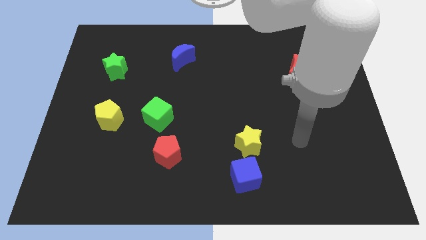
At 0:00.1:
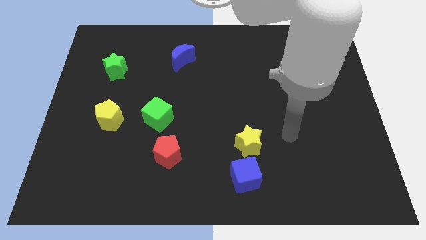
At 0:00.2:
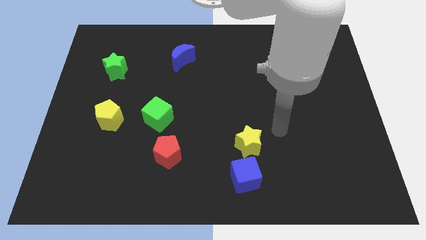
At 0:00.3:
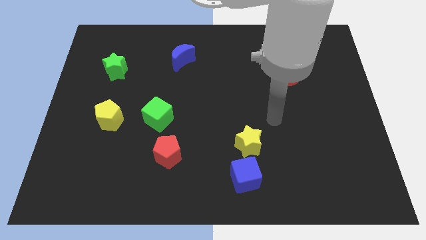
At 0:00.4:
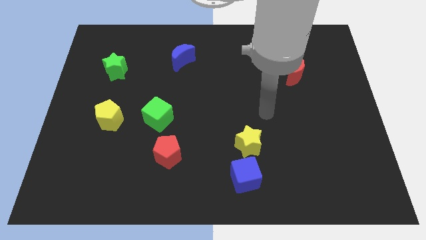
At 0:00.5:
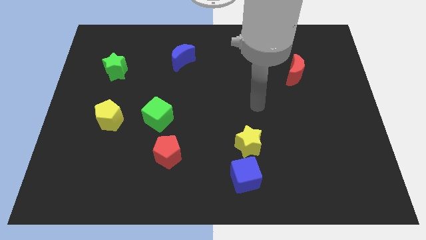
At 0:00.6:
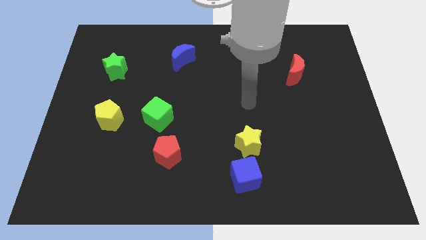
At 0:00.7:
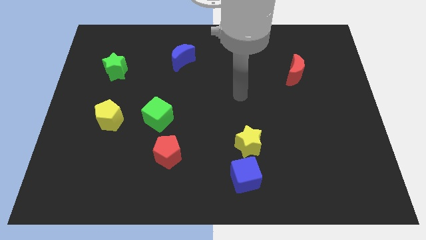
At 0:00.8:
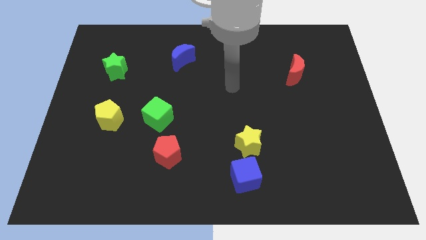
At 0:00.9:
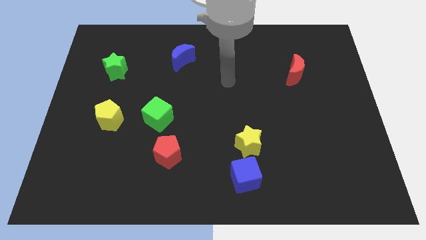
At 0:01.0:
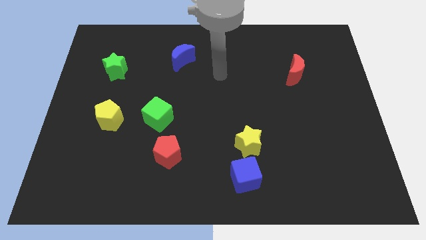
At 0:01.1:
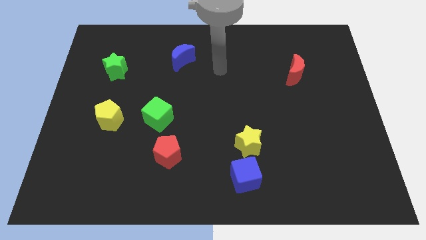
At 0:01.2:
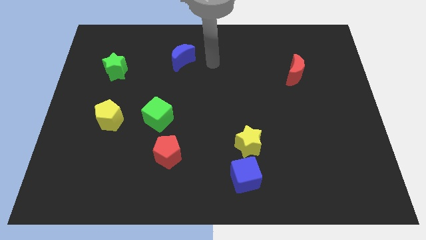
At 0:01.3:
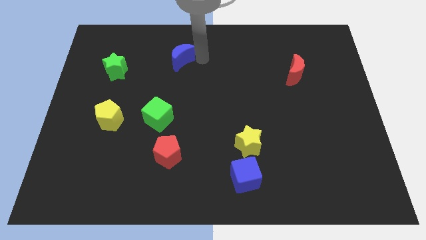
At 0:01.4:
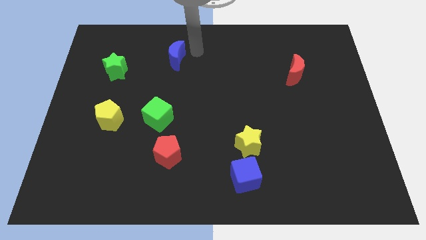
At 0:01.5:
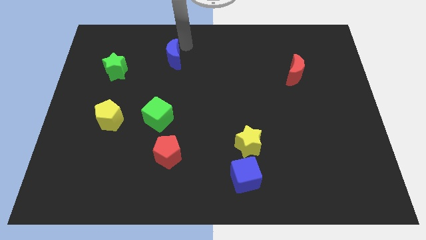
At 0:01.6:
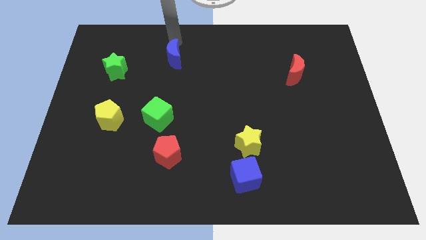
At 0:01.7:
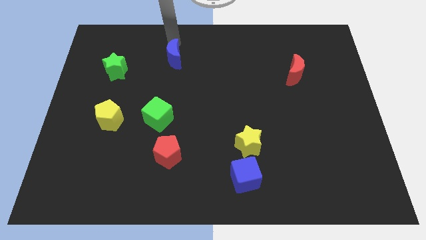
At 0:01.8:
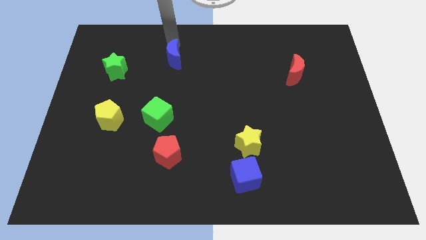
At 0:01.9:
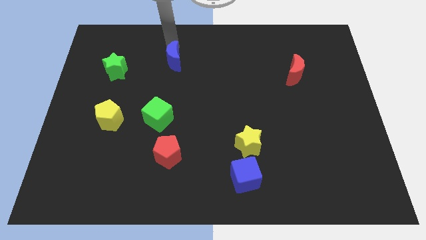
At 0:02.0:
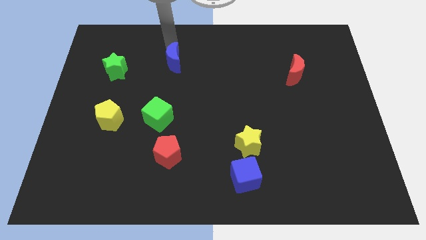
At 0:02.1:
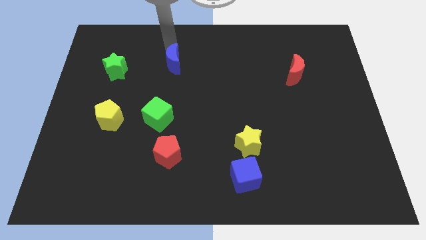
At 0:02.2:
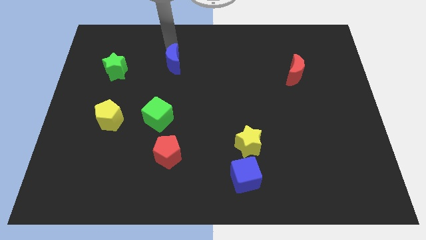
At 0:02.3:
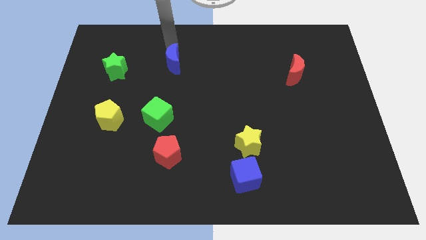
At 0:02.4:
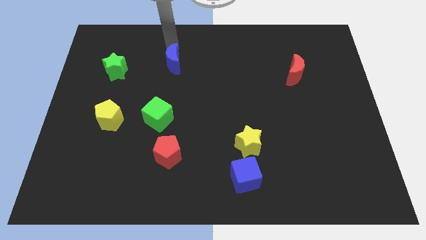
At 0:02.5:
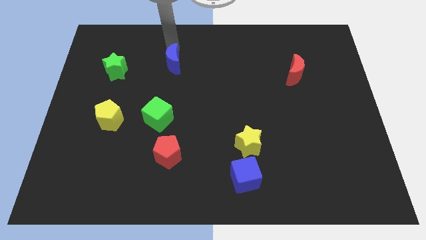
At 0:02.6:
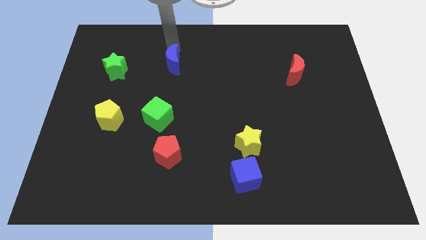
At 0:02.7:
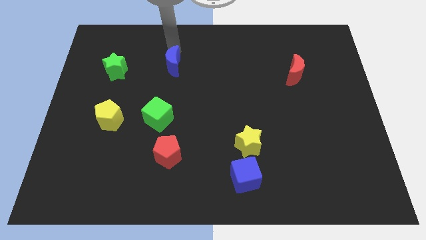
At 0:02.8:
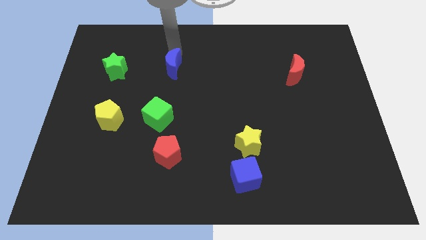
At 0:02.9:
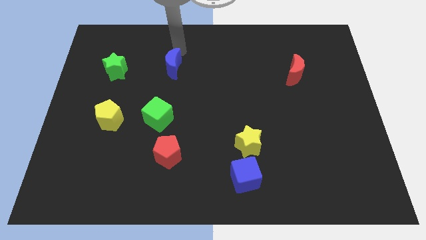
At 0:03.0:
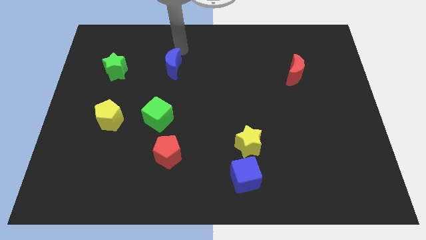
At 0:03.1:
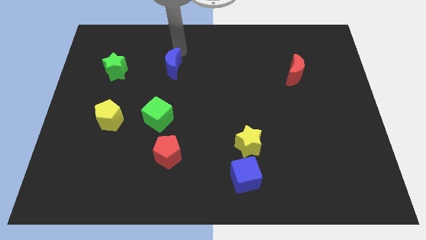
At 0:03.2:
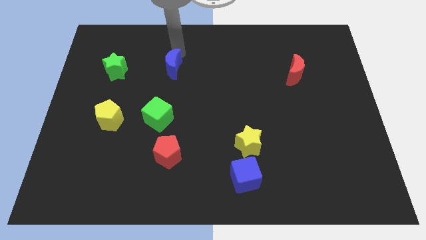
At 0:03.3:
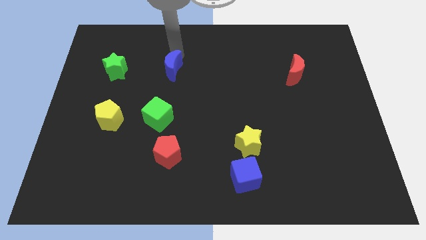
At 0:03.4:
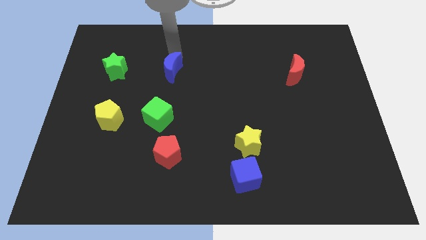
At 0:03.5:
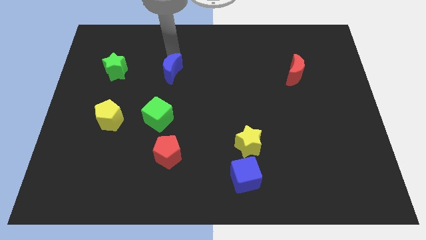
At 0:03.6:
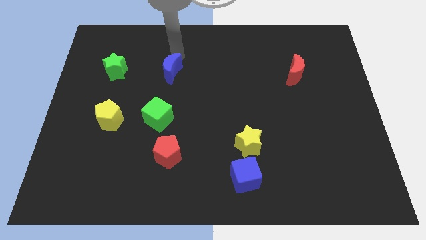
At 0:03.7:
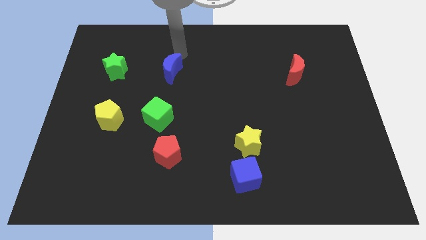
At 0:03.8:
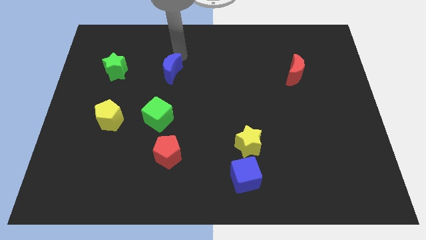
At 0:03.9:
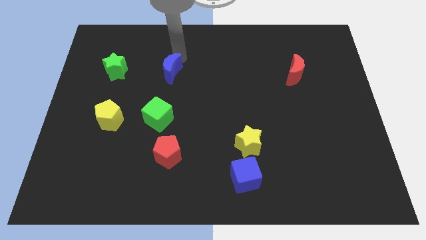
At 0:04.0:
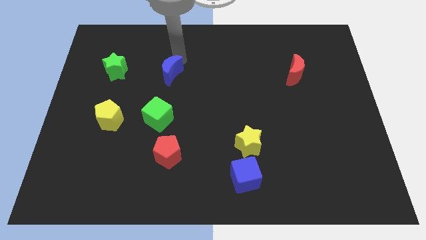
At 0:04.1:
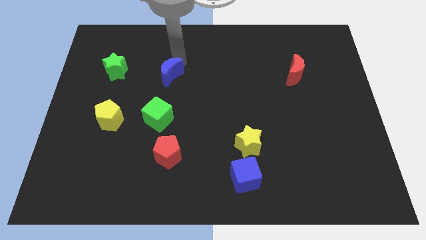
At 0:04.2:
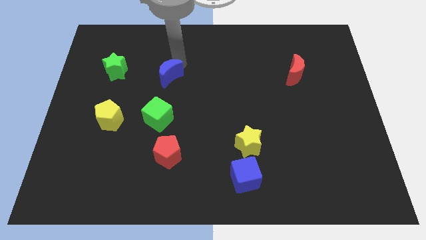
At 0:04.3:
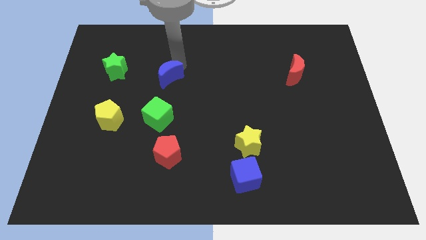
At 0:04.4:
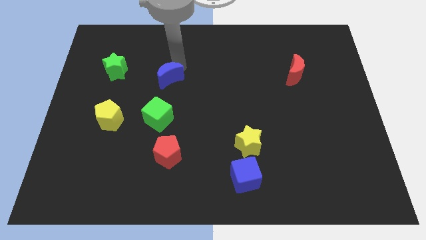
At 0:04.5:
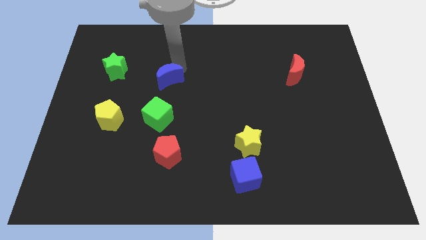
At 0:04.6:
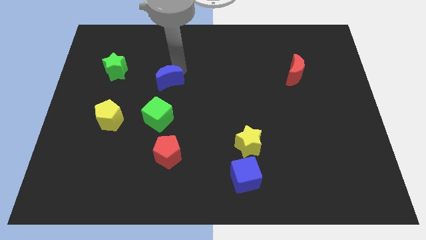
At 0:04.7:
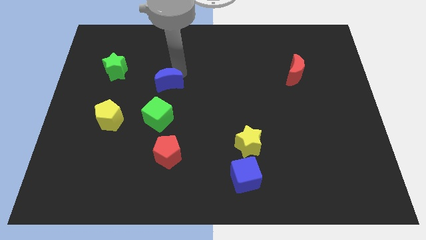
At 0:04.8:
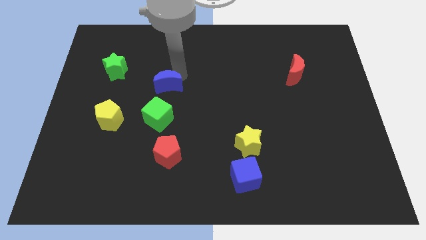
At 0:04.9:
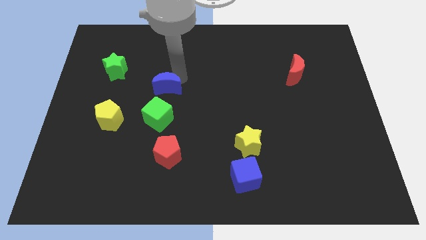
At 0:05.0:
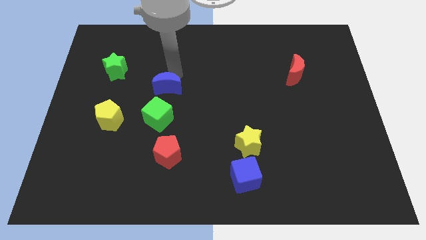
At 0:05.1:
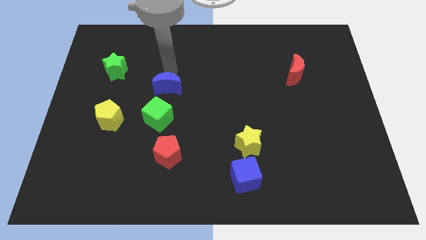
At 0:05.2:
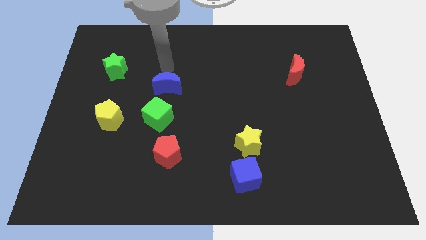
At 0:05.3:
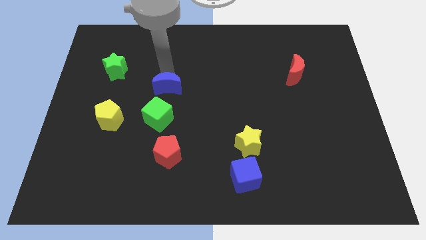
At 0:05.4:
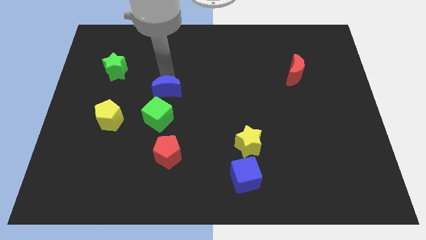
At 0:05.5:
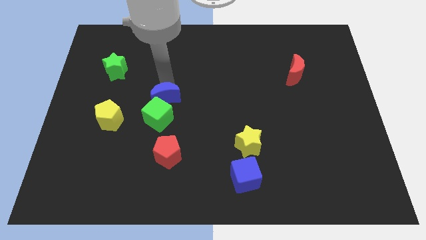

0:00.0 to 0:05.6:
put the blue moon to the top of the red pentagon

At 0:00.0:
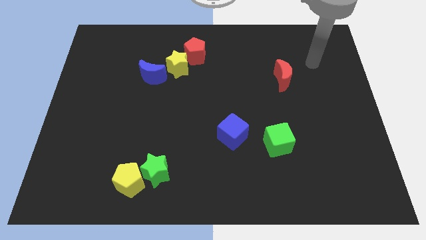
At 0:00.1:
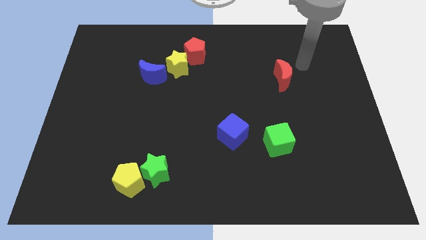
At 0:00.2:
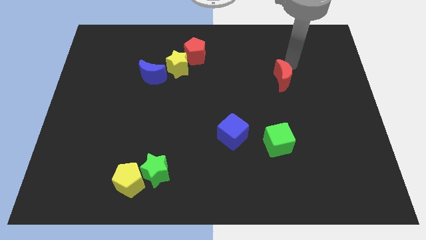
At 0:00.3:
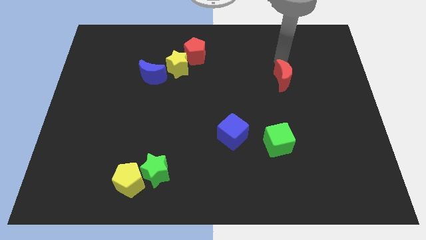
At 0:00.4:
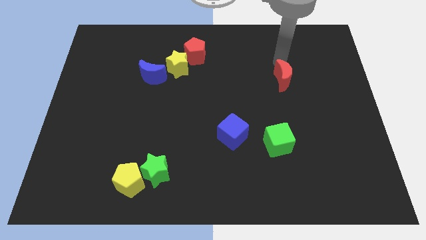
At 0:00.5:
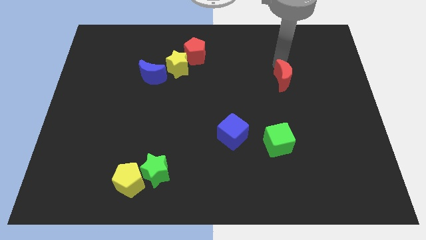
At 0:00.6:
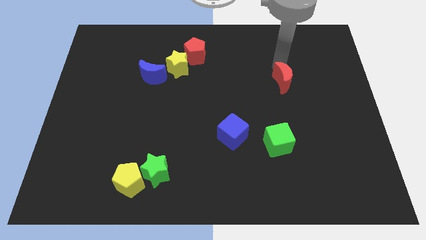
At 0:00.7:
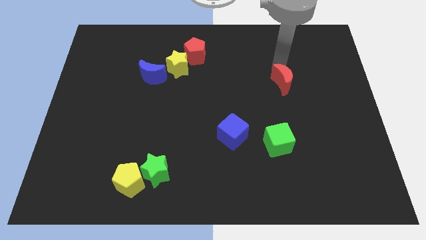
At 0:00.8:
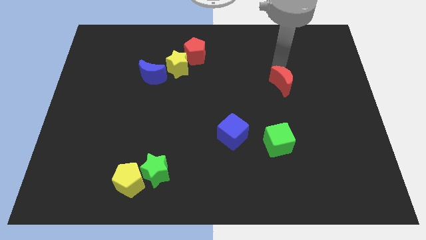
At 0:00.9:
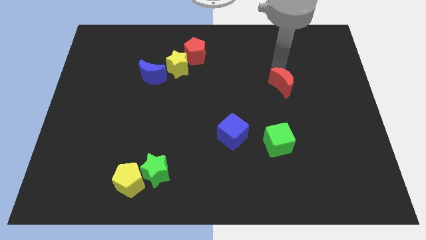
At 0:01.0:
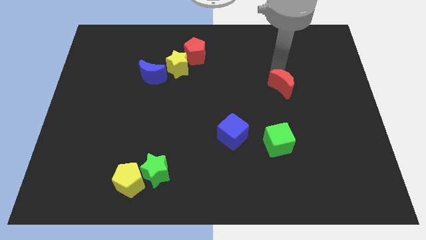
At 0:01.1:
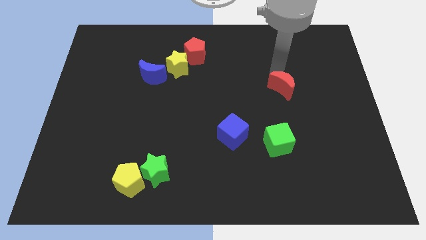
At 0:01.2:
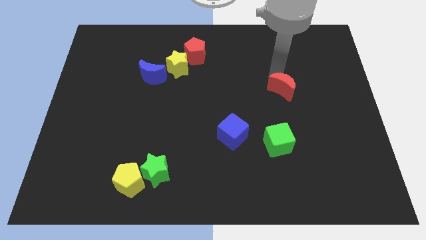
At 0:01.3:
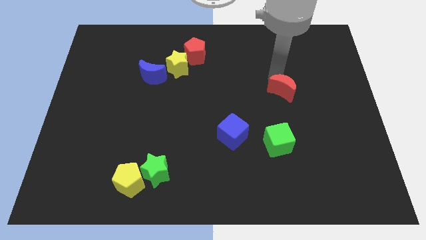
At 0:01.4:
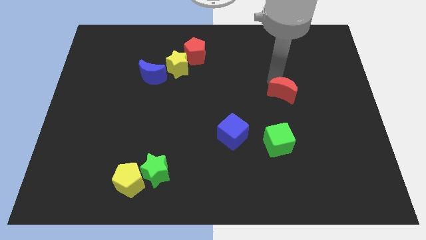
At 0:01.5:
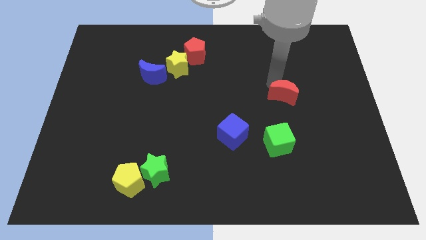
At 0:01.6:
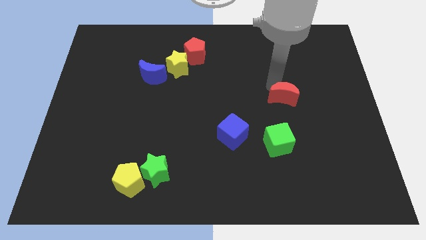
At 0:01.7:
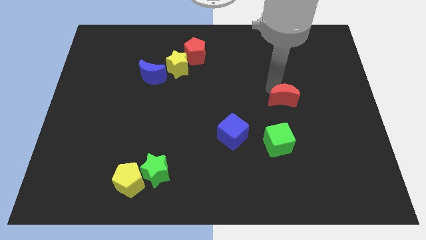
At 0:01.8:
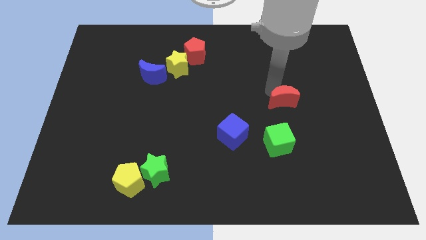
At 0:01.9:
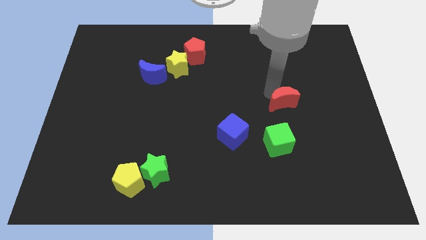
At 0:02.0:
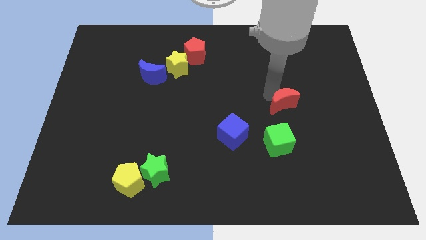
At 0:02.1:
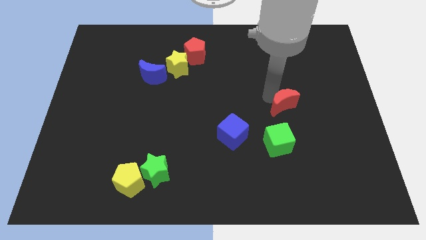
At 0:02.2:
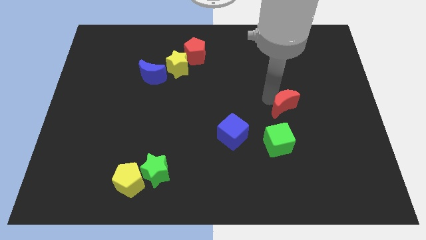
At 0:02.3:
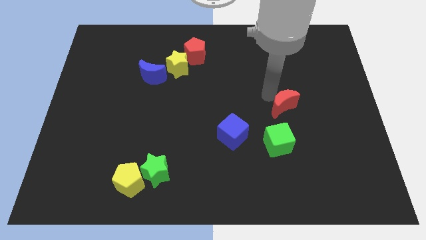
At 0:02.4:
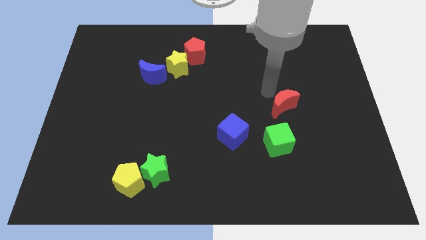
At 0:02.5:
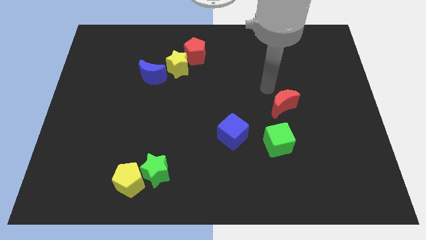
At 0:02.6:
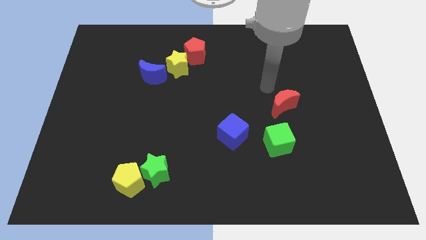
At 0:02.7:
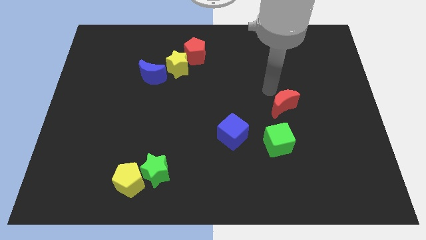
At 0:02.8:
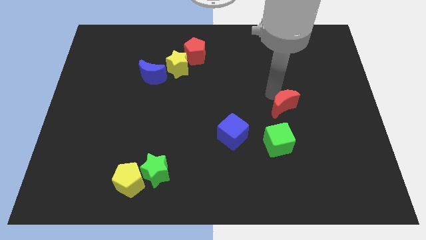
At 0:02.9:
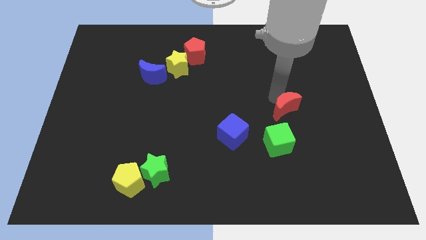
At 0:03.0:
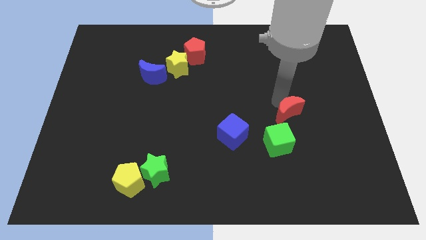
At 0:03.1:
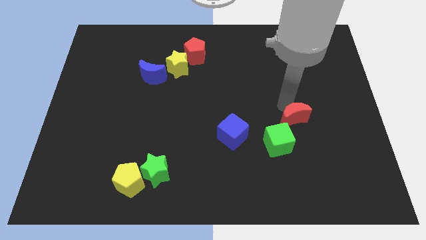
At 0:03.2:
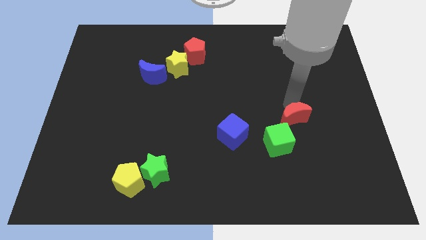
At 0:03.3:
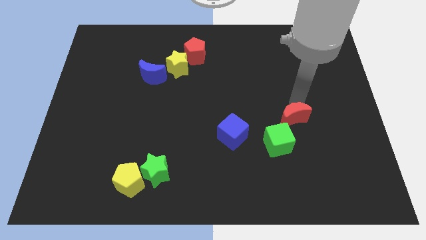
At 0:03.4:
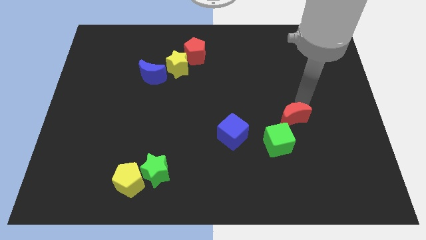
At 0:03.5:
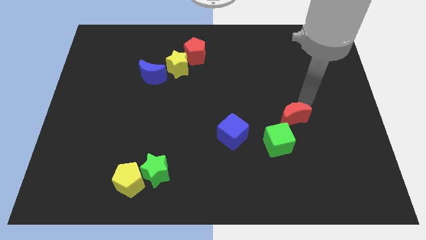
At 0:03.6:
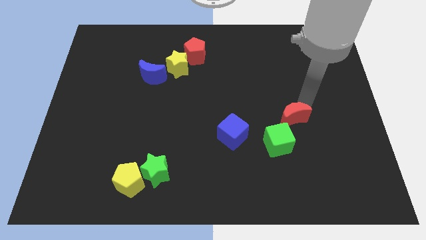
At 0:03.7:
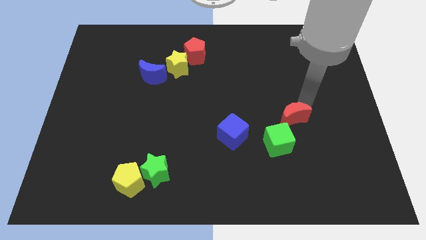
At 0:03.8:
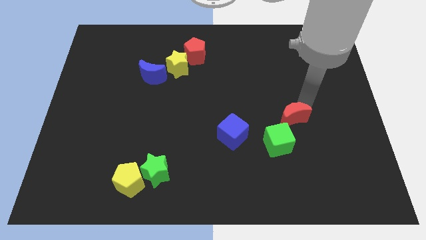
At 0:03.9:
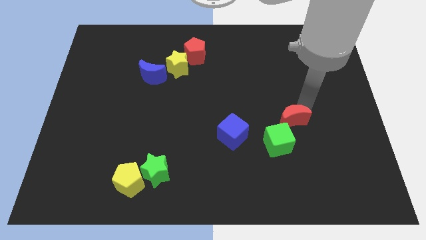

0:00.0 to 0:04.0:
put the red moon right of the blue cube
